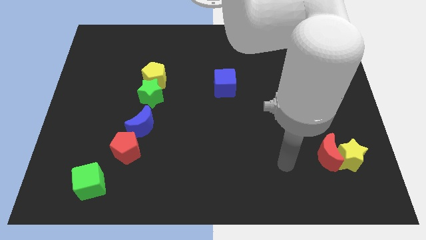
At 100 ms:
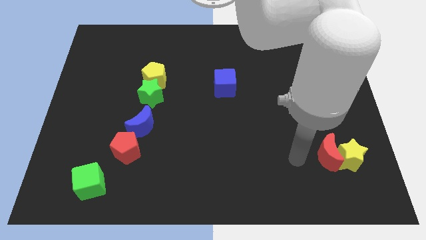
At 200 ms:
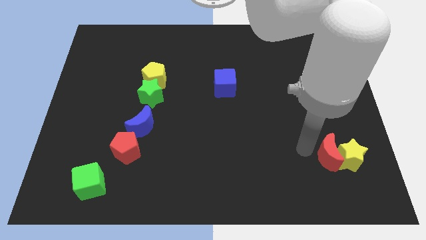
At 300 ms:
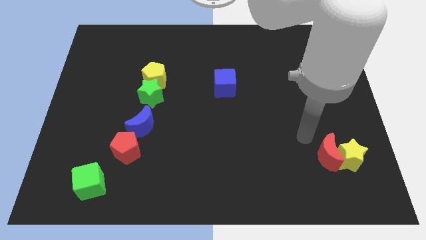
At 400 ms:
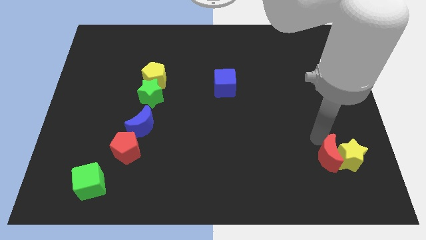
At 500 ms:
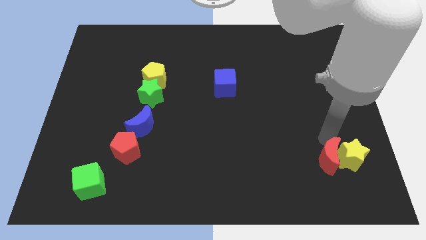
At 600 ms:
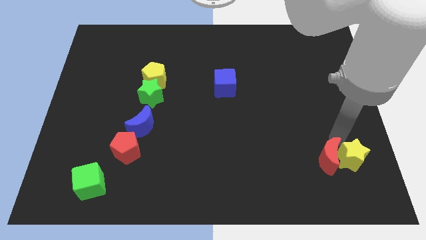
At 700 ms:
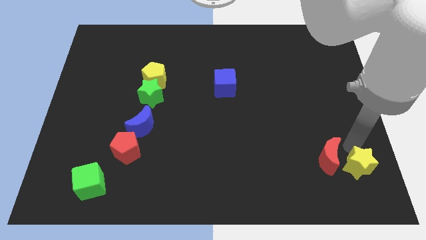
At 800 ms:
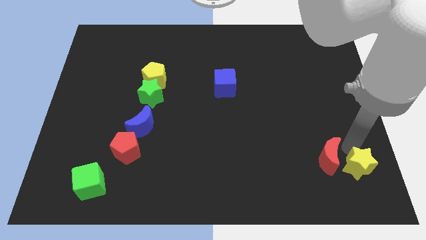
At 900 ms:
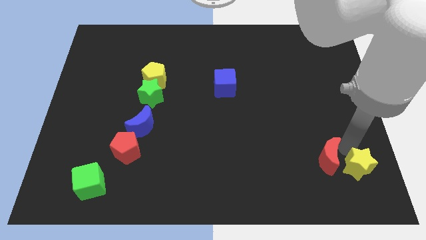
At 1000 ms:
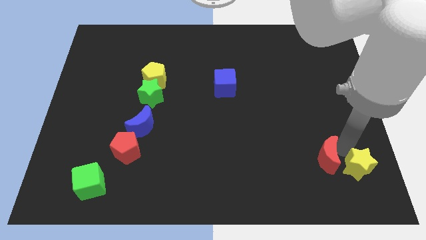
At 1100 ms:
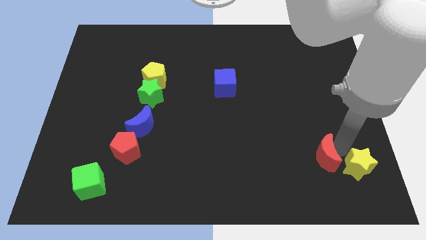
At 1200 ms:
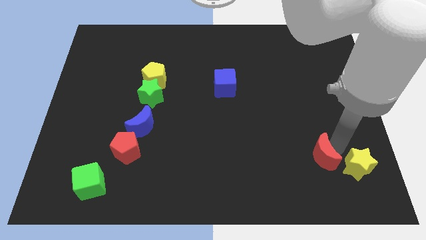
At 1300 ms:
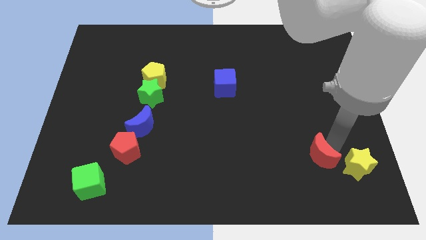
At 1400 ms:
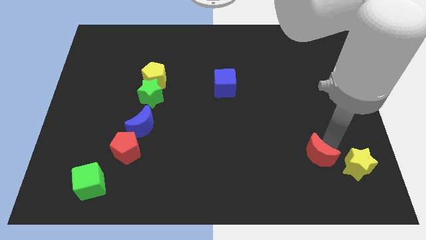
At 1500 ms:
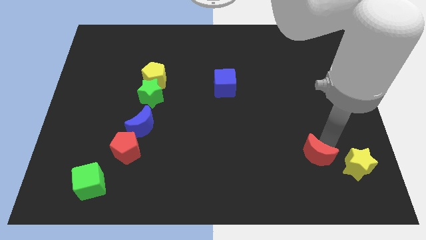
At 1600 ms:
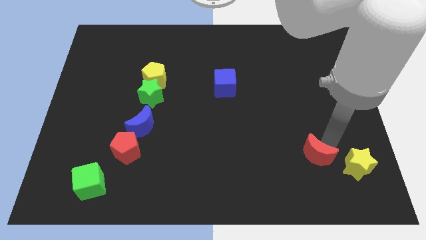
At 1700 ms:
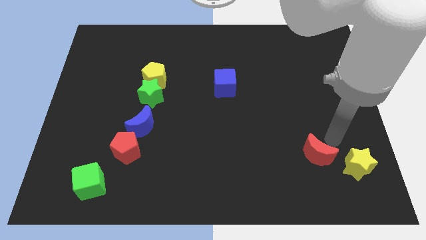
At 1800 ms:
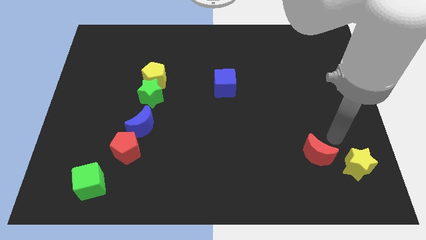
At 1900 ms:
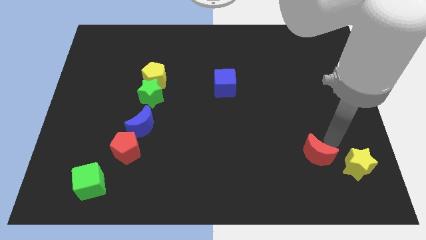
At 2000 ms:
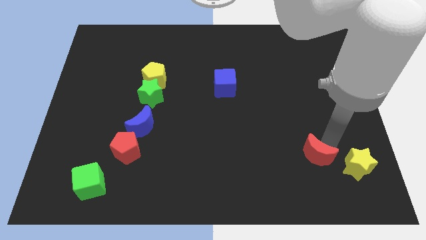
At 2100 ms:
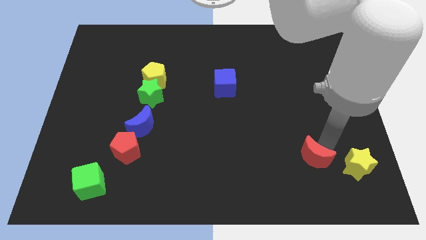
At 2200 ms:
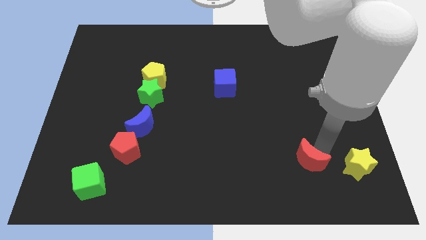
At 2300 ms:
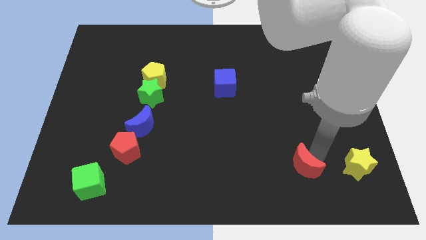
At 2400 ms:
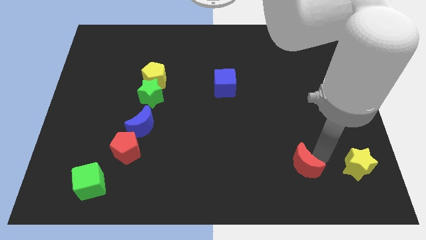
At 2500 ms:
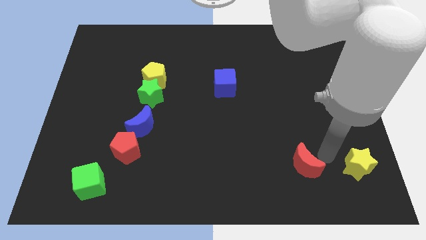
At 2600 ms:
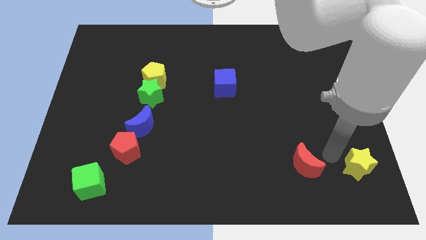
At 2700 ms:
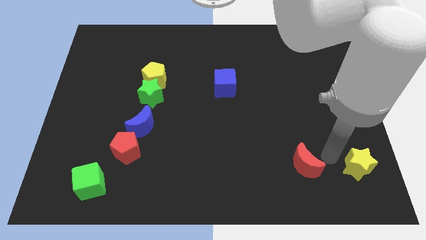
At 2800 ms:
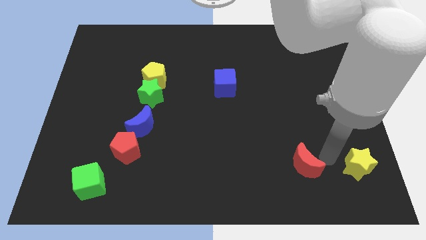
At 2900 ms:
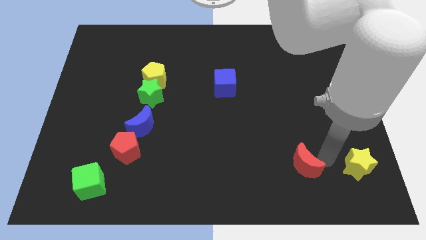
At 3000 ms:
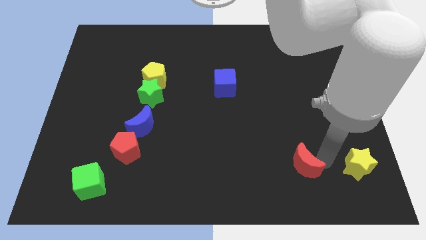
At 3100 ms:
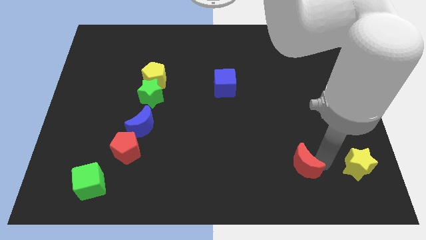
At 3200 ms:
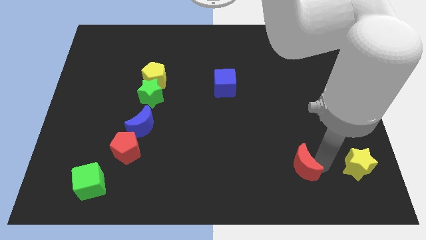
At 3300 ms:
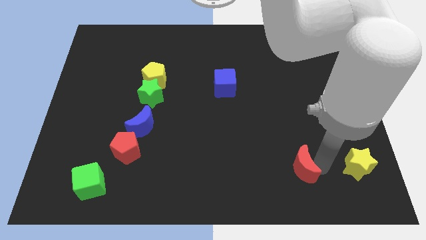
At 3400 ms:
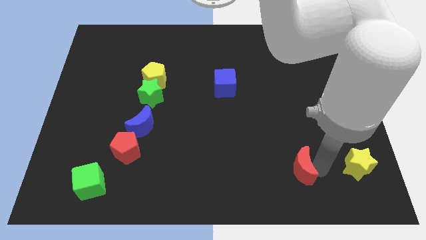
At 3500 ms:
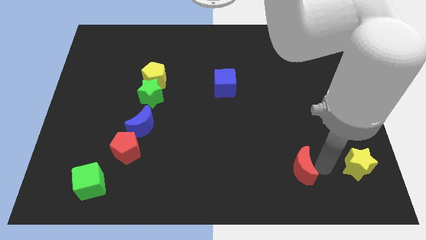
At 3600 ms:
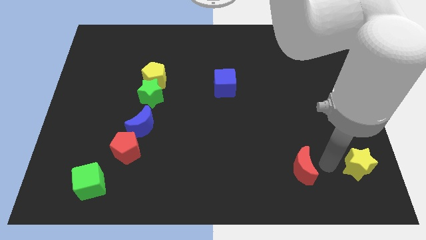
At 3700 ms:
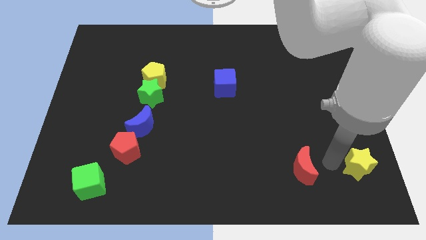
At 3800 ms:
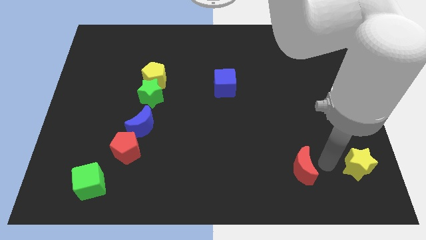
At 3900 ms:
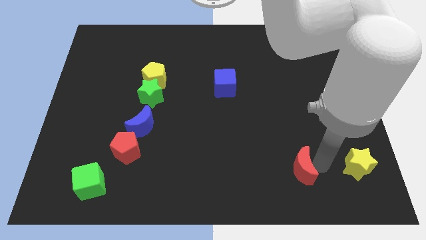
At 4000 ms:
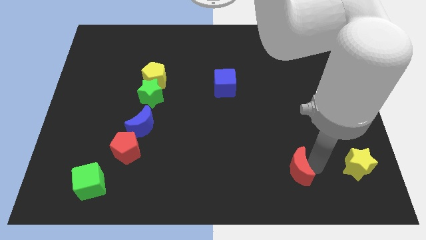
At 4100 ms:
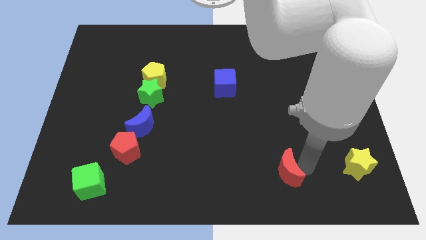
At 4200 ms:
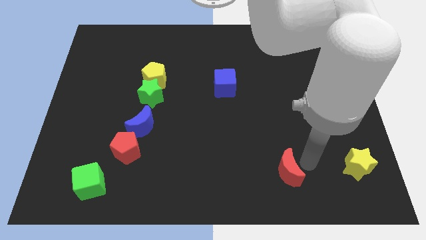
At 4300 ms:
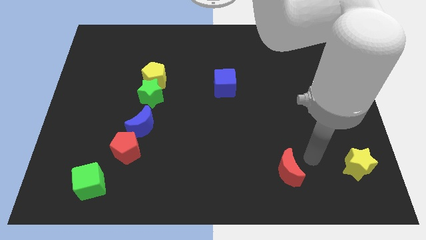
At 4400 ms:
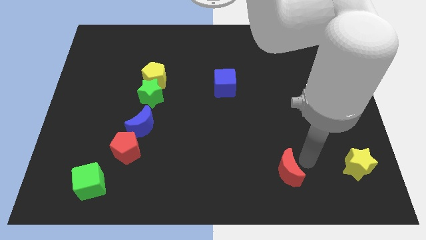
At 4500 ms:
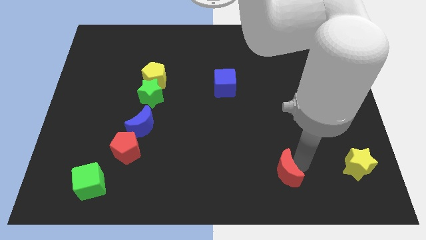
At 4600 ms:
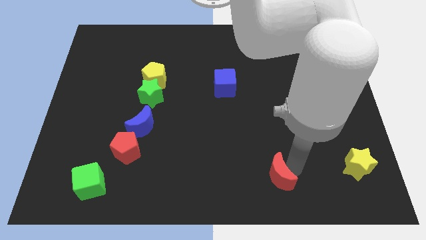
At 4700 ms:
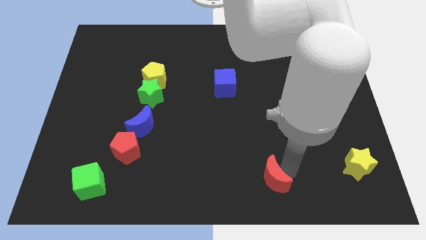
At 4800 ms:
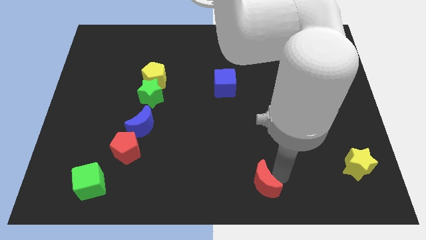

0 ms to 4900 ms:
push the red moon to the bottom

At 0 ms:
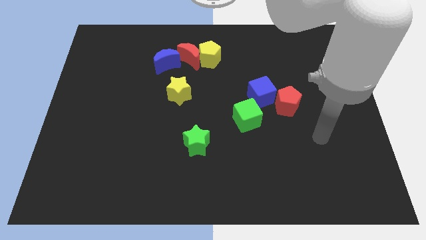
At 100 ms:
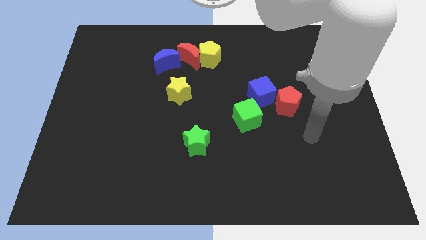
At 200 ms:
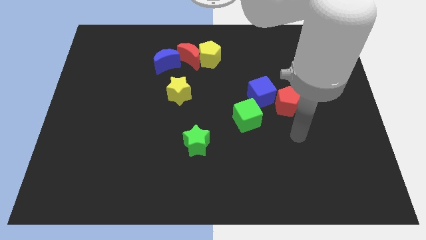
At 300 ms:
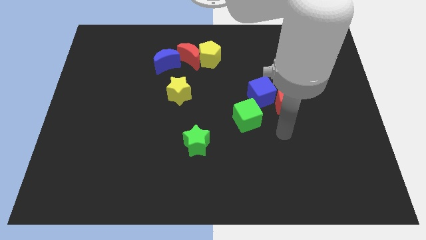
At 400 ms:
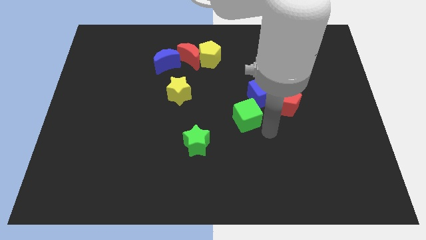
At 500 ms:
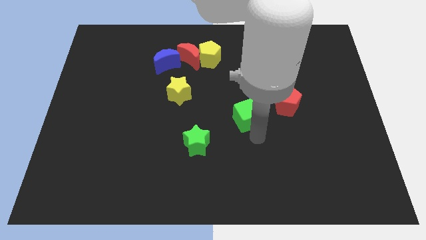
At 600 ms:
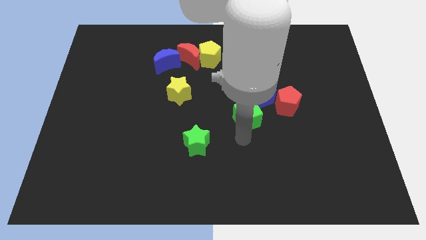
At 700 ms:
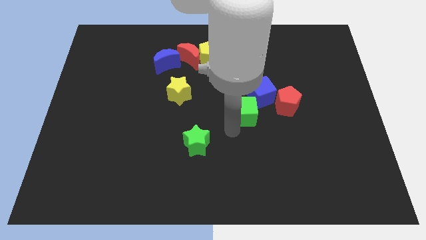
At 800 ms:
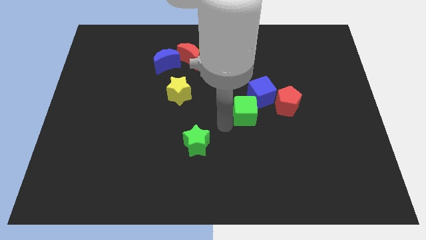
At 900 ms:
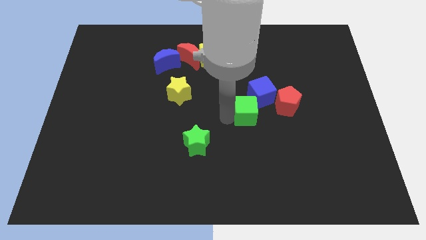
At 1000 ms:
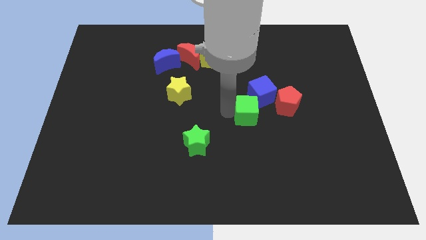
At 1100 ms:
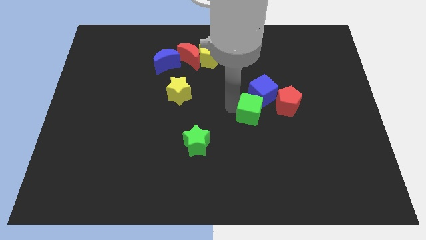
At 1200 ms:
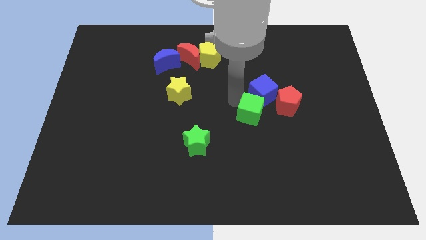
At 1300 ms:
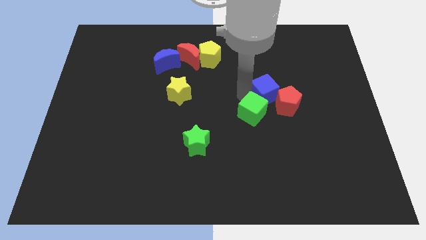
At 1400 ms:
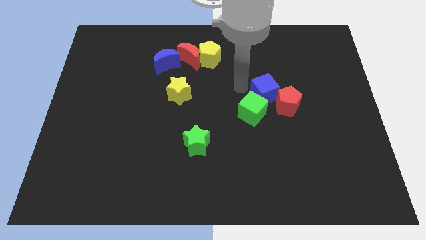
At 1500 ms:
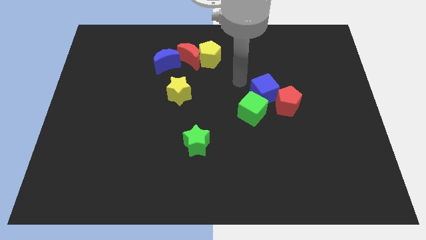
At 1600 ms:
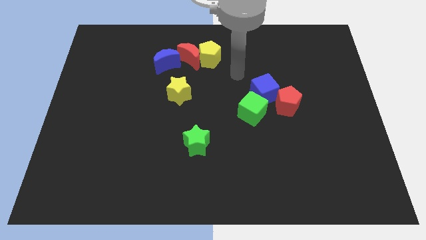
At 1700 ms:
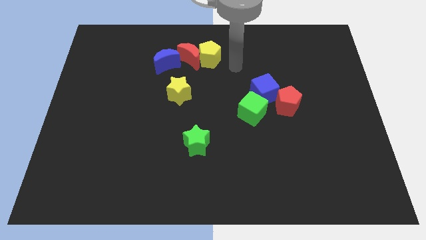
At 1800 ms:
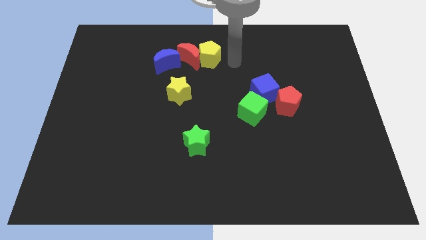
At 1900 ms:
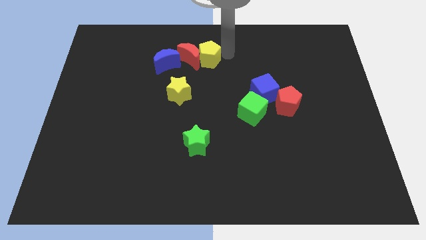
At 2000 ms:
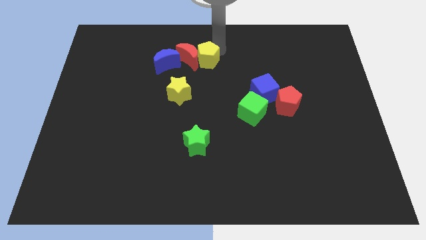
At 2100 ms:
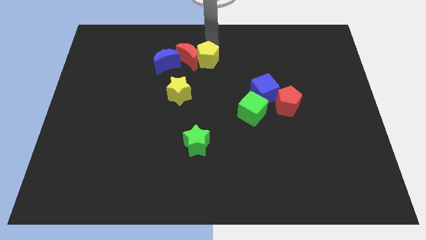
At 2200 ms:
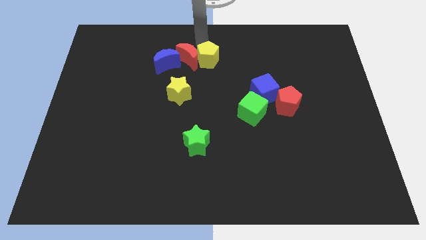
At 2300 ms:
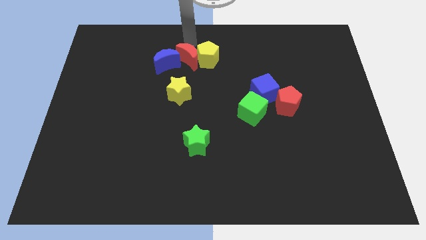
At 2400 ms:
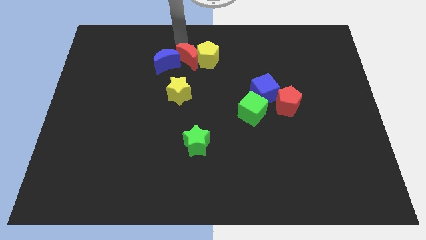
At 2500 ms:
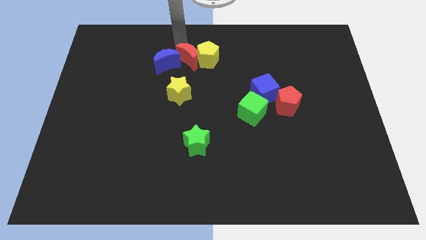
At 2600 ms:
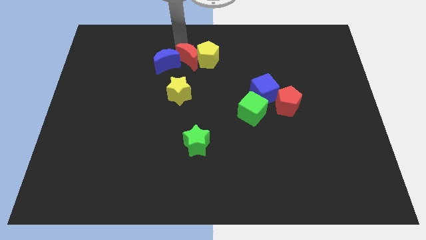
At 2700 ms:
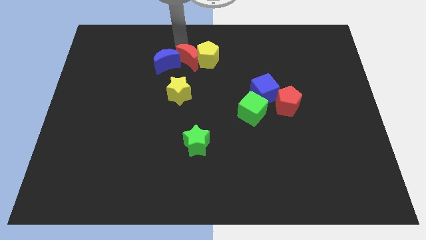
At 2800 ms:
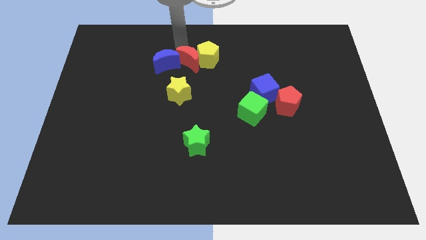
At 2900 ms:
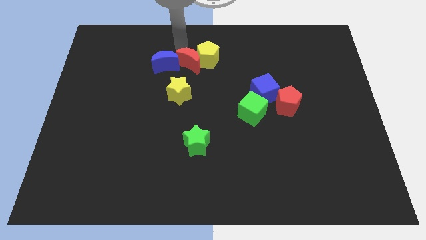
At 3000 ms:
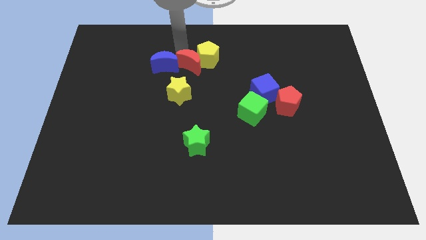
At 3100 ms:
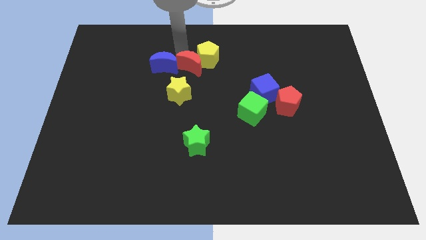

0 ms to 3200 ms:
slide the red moon to the center of the board
